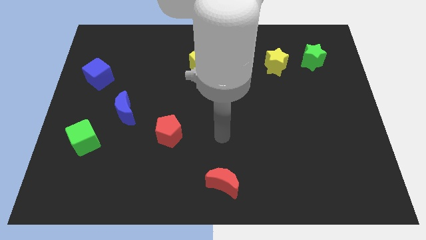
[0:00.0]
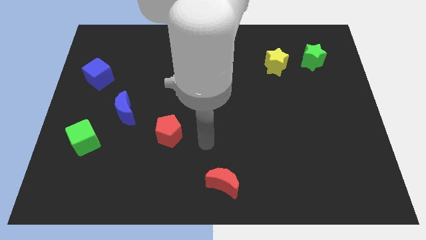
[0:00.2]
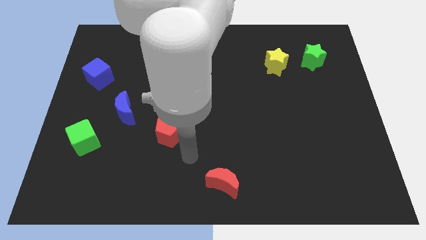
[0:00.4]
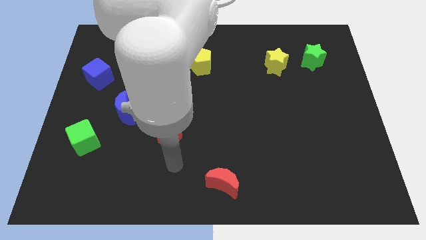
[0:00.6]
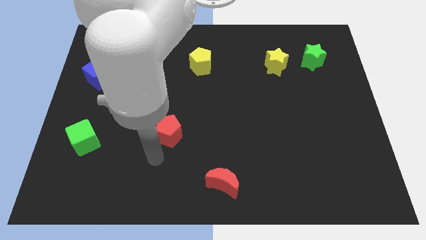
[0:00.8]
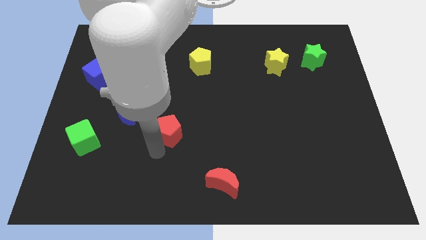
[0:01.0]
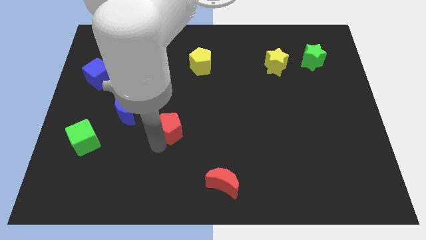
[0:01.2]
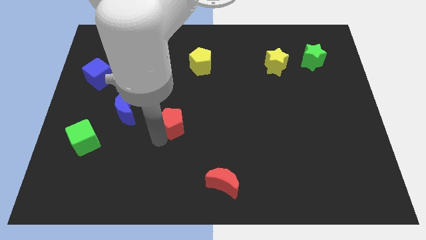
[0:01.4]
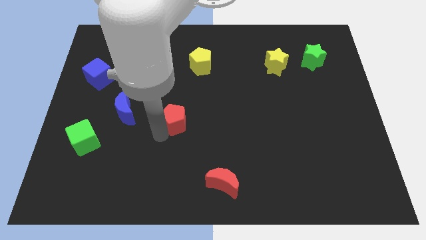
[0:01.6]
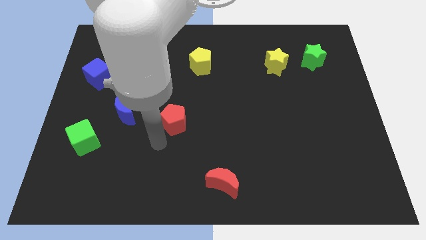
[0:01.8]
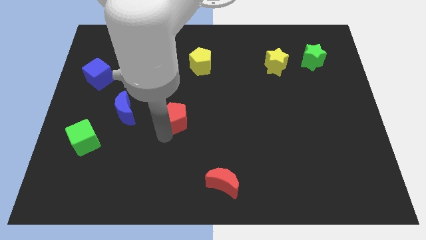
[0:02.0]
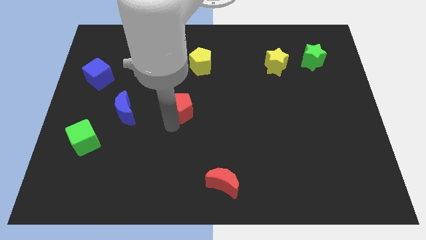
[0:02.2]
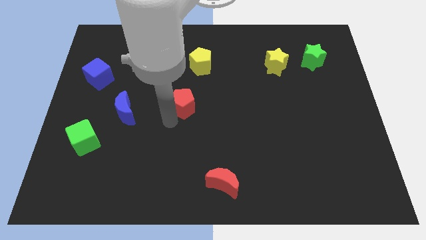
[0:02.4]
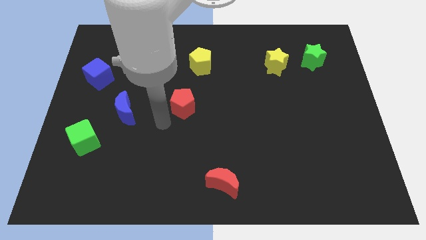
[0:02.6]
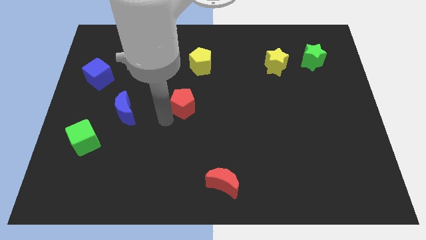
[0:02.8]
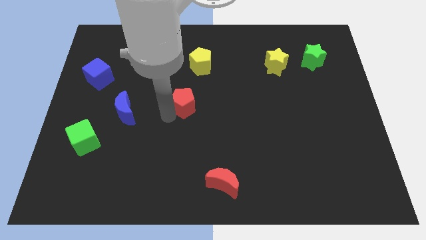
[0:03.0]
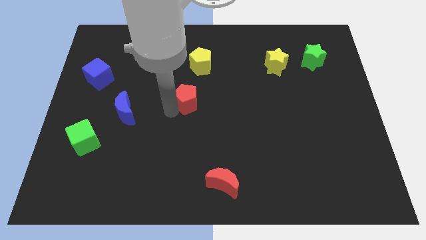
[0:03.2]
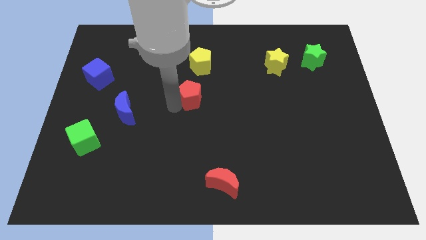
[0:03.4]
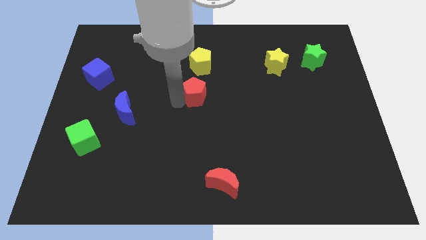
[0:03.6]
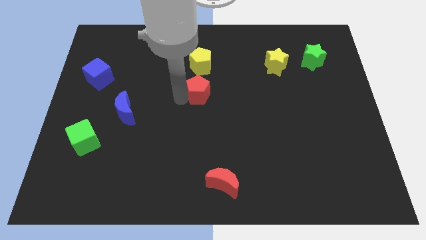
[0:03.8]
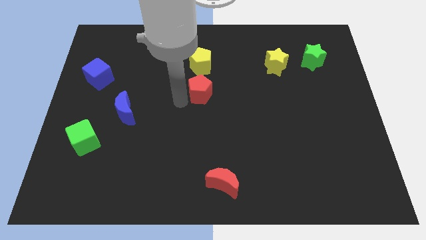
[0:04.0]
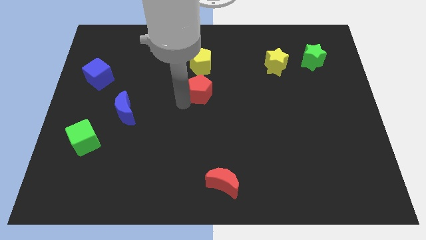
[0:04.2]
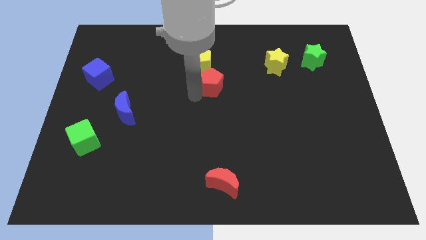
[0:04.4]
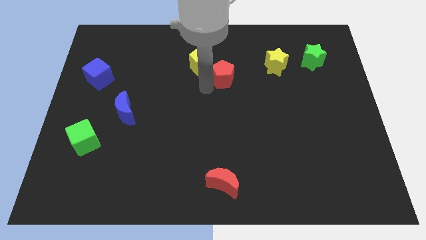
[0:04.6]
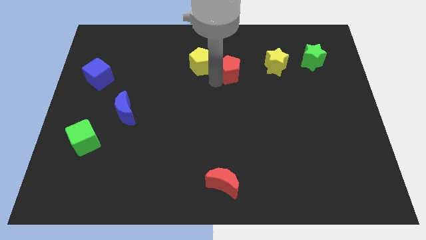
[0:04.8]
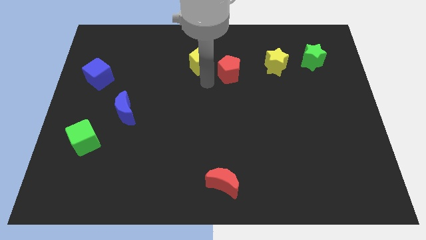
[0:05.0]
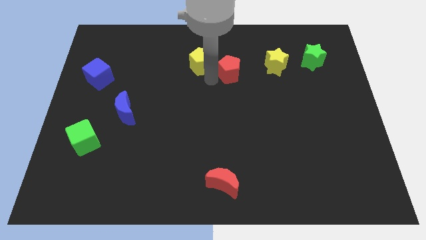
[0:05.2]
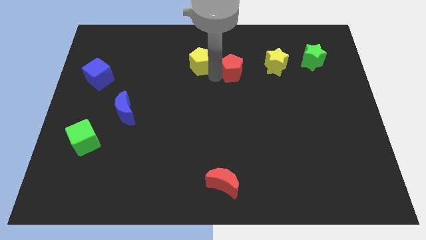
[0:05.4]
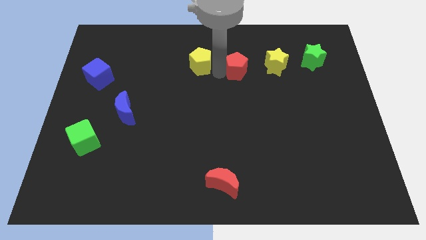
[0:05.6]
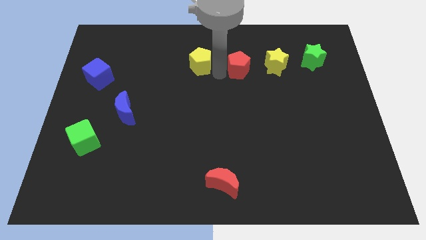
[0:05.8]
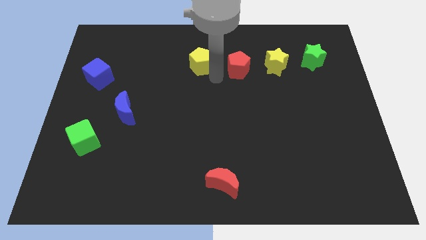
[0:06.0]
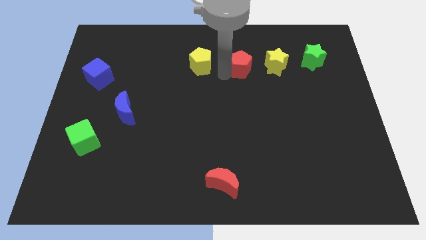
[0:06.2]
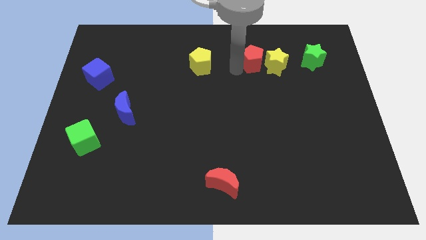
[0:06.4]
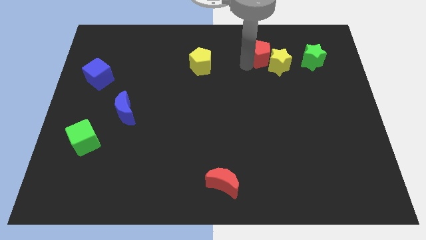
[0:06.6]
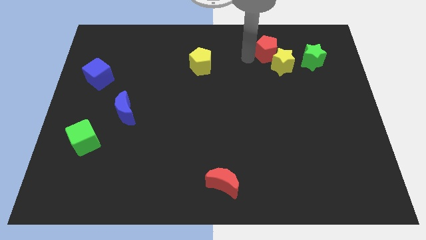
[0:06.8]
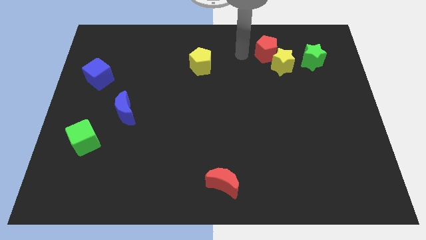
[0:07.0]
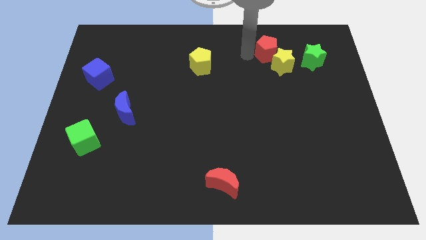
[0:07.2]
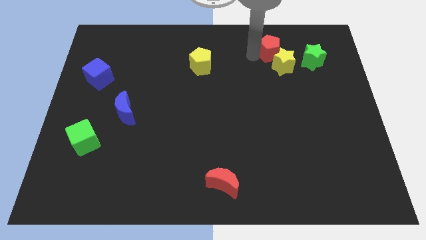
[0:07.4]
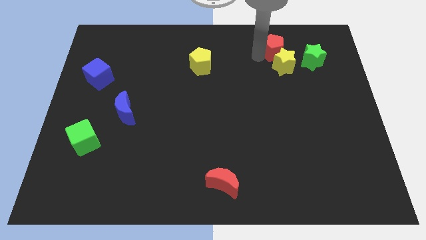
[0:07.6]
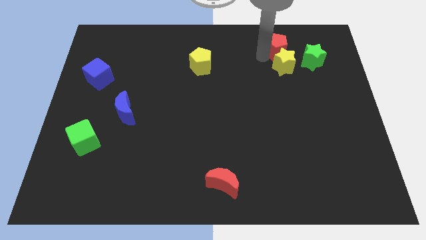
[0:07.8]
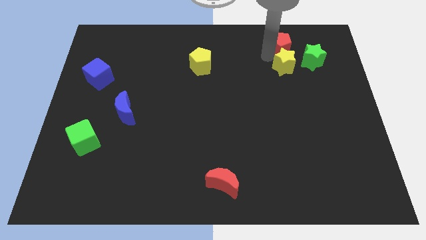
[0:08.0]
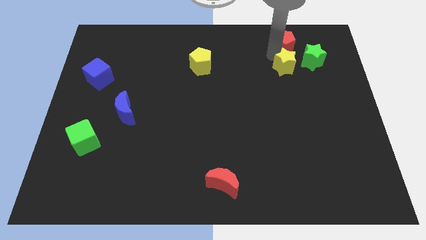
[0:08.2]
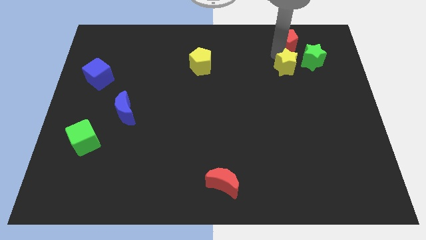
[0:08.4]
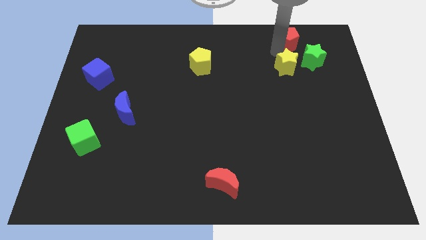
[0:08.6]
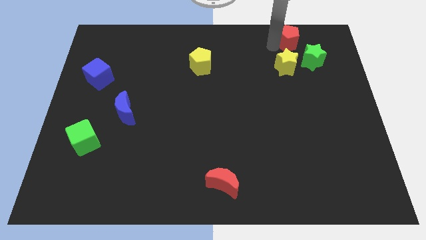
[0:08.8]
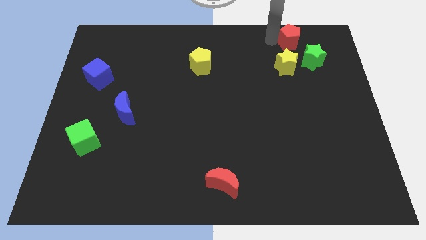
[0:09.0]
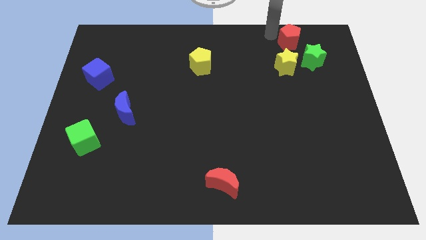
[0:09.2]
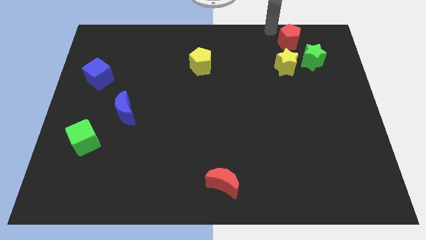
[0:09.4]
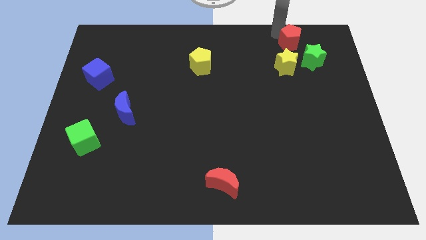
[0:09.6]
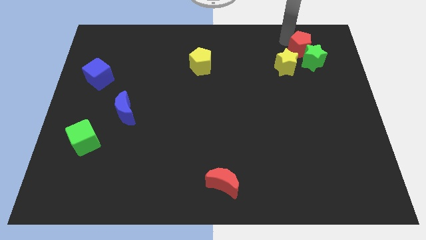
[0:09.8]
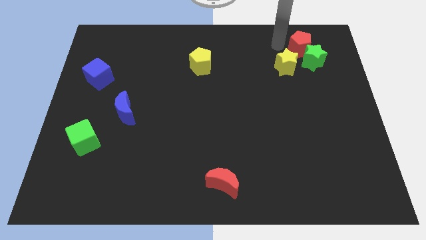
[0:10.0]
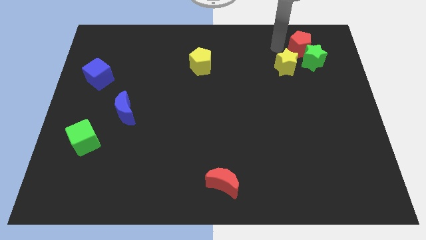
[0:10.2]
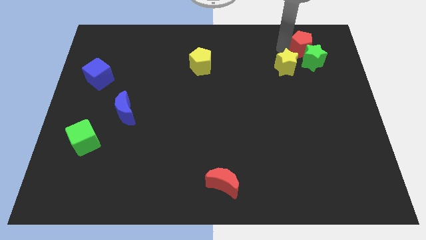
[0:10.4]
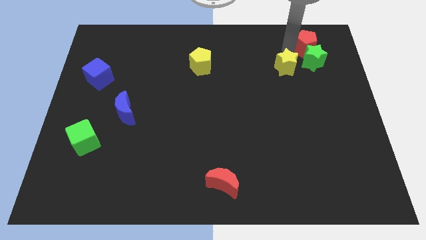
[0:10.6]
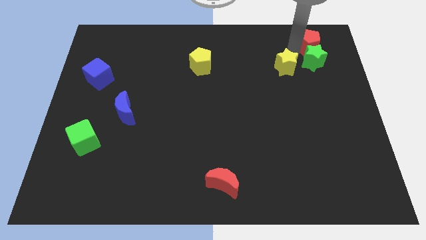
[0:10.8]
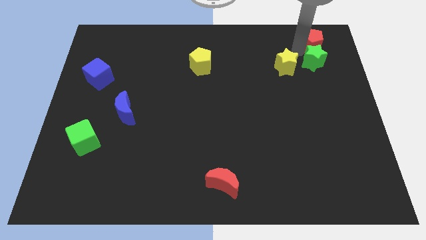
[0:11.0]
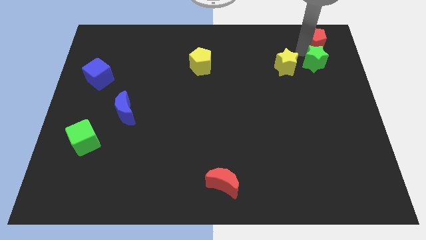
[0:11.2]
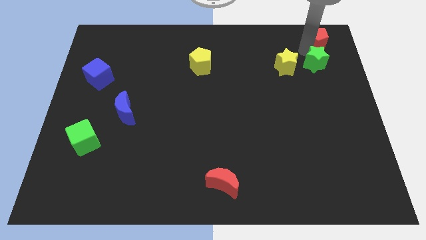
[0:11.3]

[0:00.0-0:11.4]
put the red pentagon to the top right corner

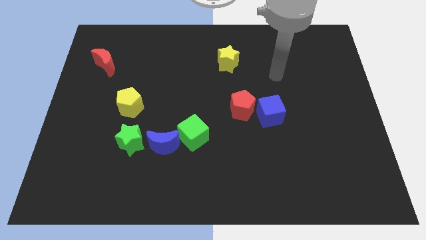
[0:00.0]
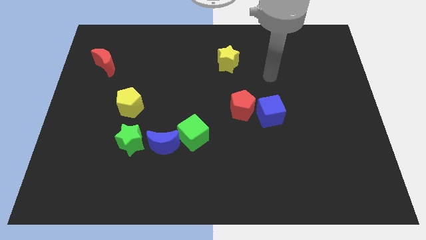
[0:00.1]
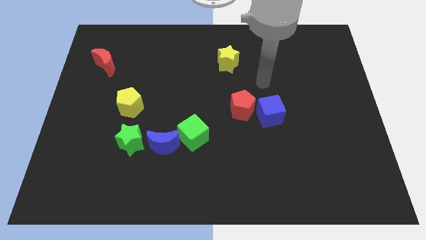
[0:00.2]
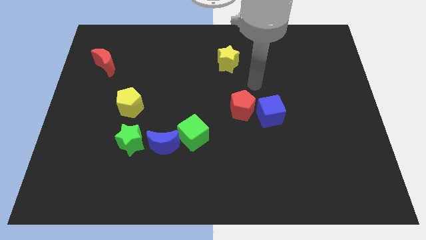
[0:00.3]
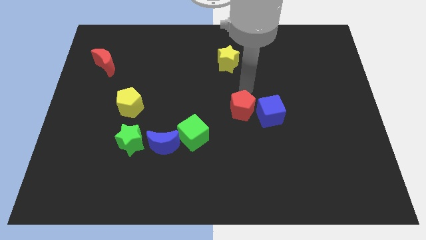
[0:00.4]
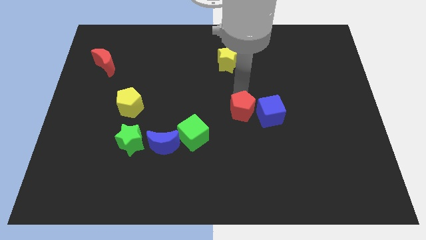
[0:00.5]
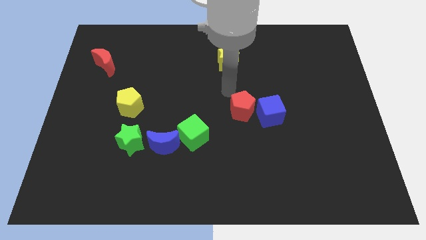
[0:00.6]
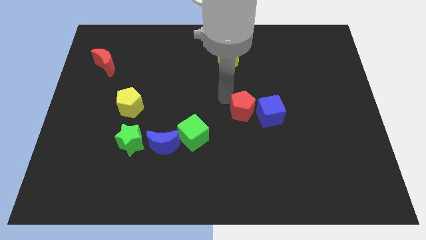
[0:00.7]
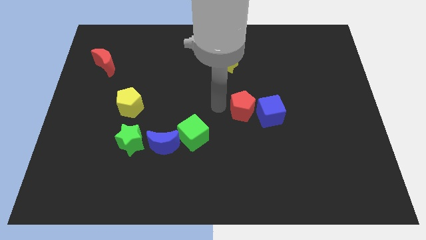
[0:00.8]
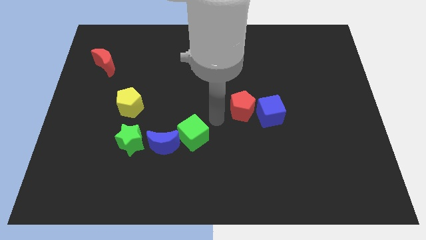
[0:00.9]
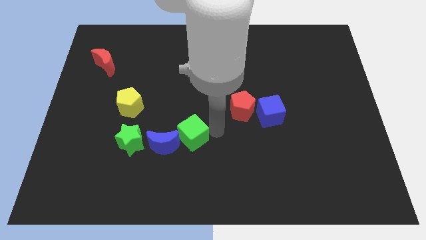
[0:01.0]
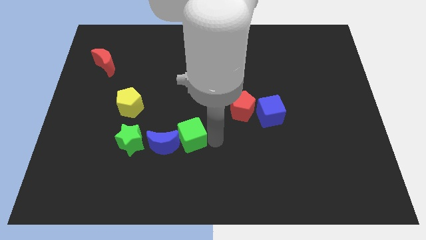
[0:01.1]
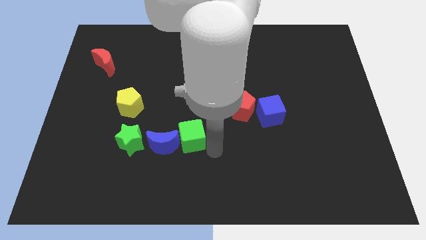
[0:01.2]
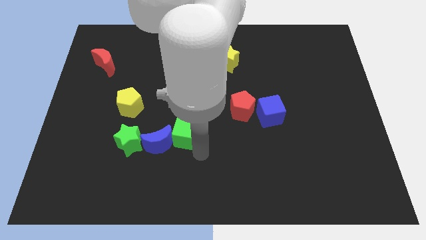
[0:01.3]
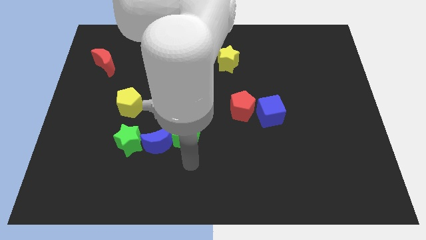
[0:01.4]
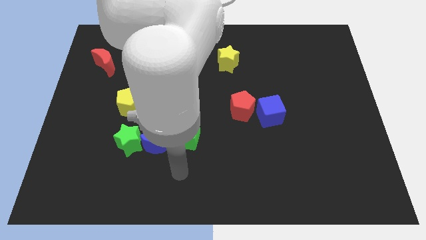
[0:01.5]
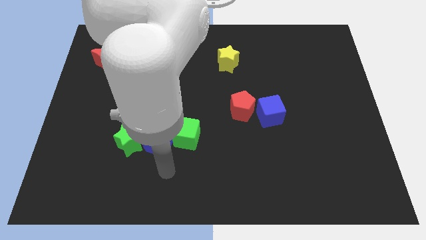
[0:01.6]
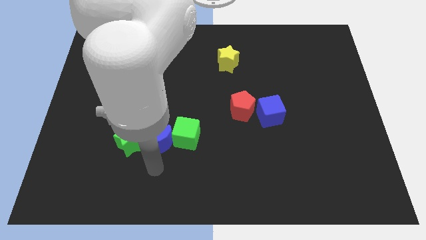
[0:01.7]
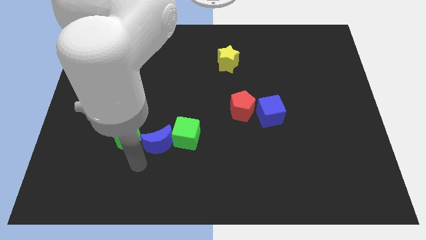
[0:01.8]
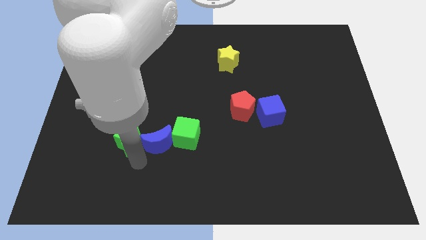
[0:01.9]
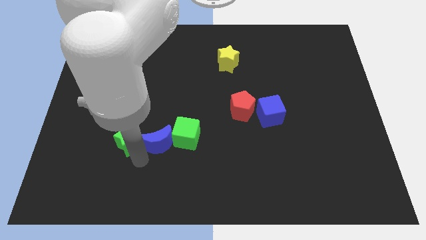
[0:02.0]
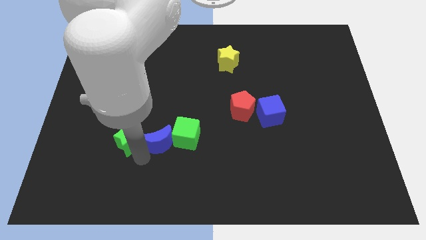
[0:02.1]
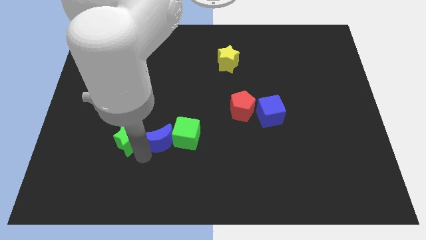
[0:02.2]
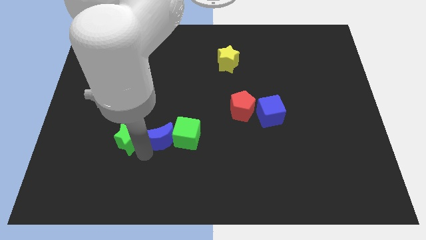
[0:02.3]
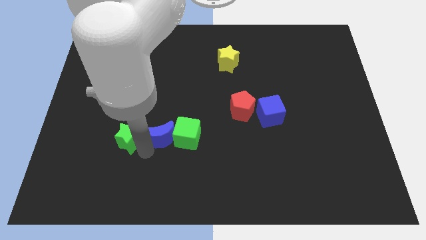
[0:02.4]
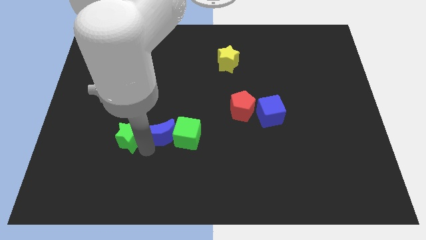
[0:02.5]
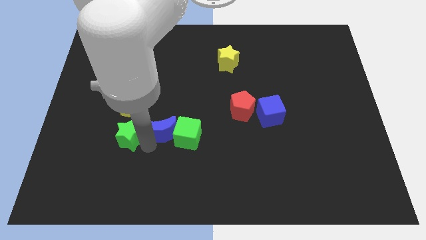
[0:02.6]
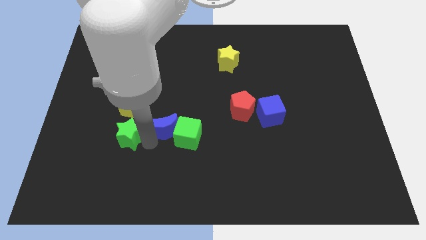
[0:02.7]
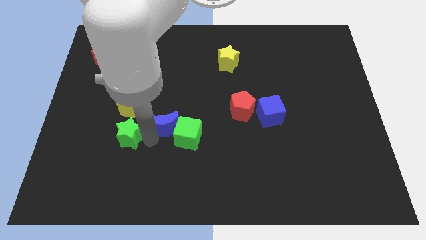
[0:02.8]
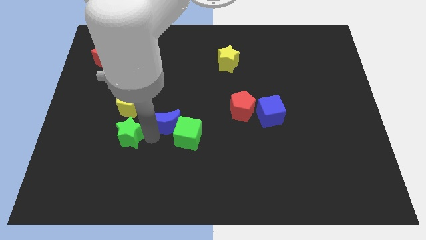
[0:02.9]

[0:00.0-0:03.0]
push the blue moon to the center of the board
